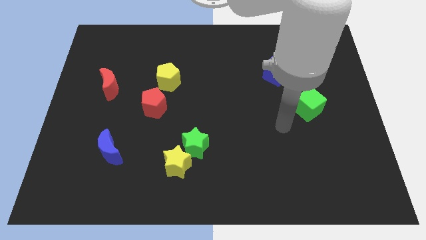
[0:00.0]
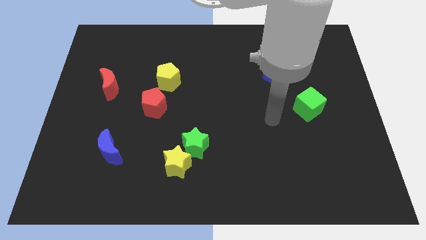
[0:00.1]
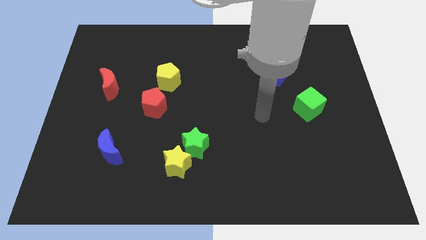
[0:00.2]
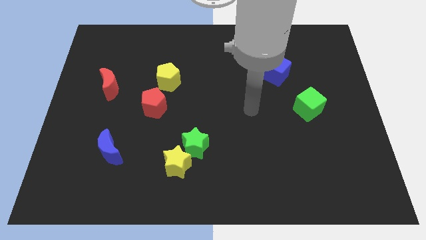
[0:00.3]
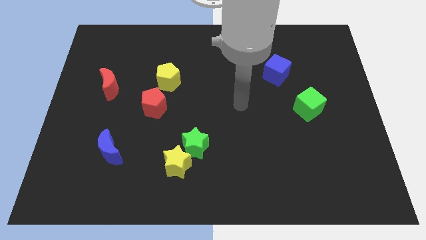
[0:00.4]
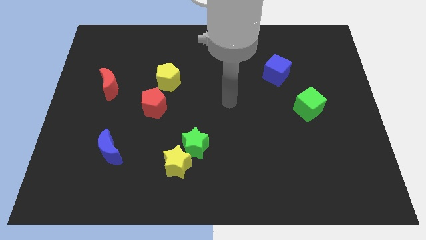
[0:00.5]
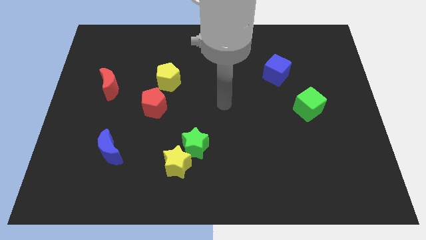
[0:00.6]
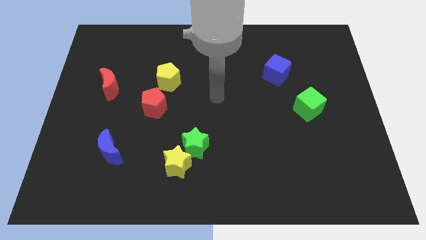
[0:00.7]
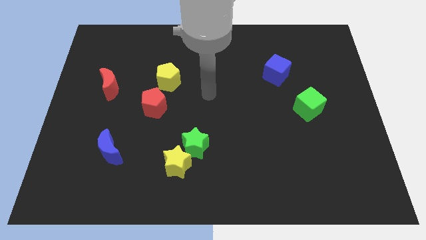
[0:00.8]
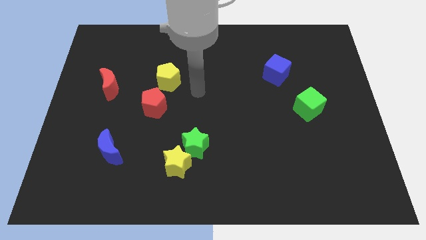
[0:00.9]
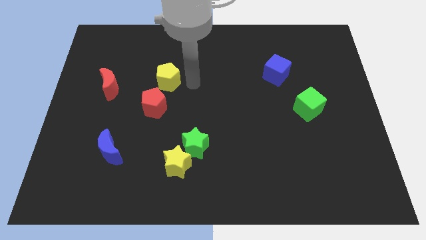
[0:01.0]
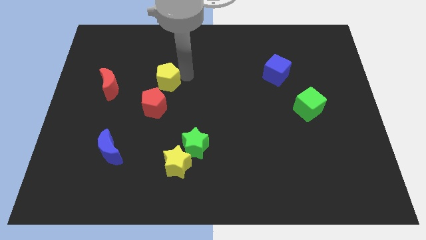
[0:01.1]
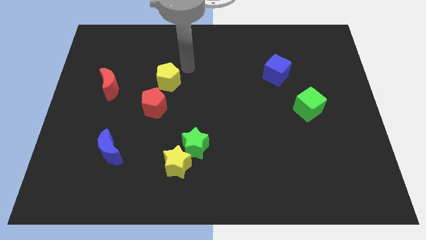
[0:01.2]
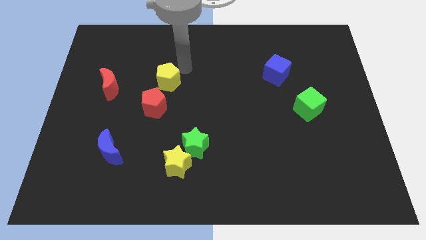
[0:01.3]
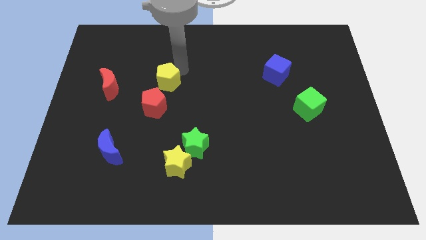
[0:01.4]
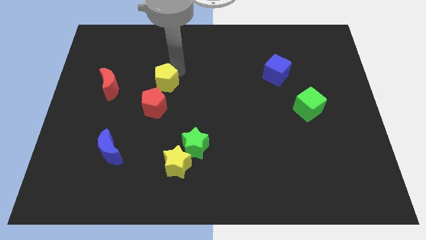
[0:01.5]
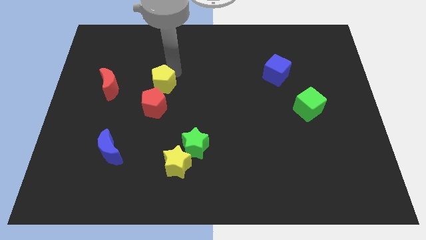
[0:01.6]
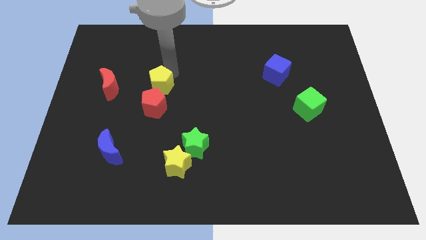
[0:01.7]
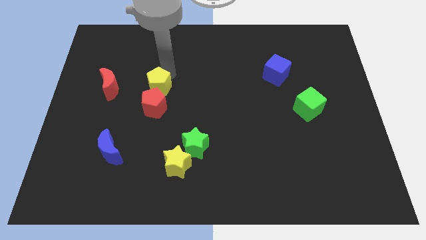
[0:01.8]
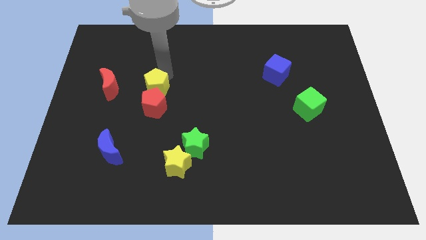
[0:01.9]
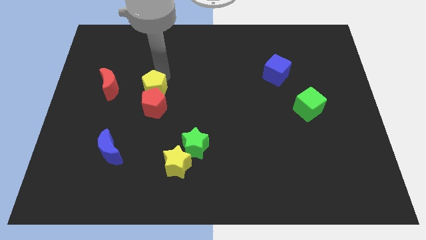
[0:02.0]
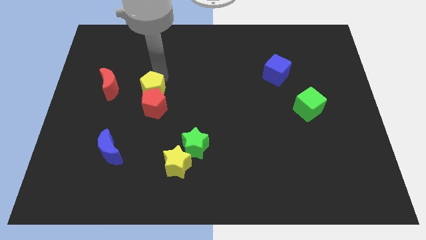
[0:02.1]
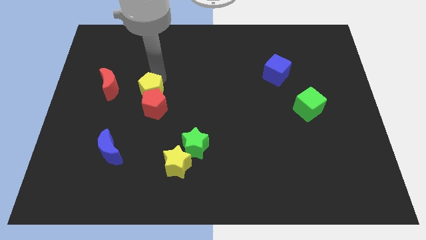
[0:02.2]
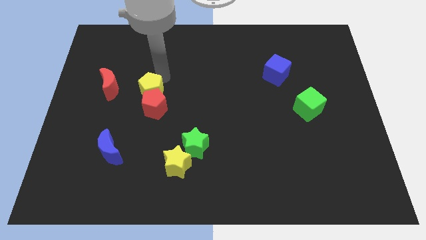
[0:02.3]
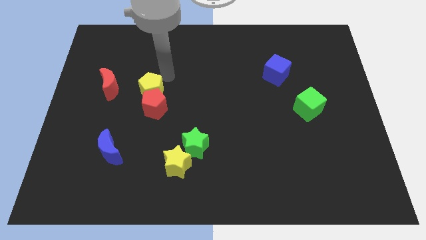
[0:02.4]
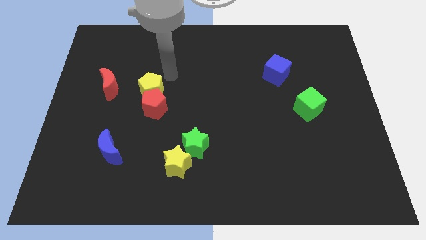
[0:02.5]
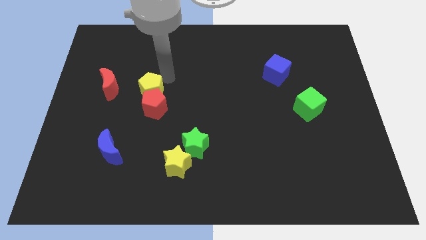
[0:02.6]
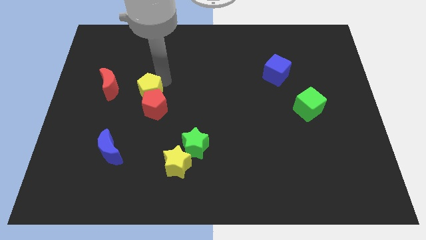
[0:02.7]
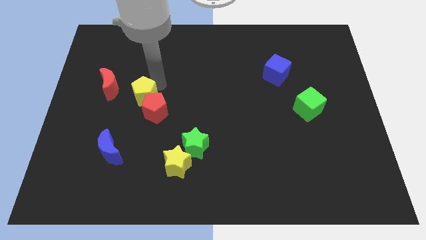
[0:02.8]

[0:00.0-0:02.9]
slightly move the yellow pentagon down and left

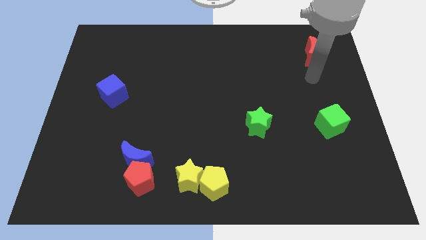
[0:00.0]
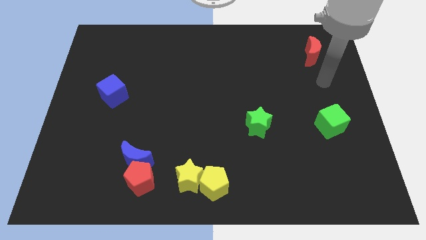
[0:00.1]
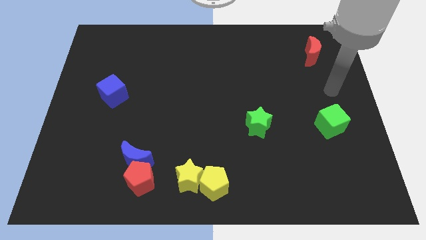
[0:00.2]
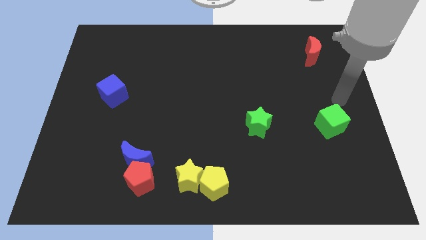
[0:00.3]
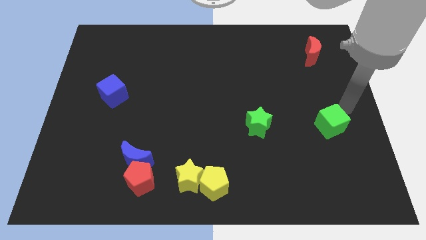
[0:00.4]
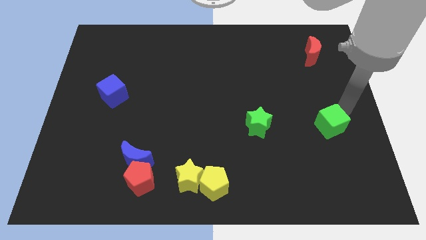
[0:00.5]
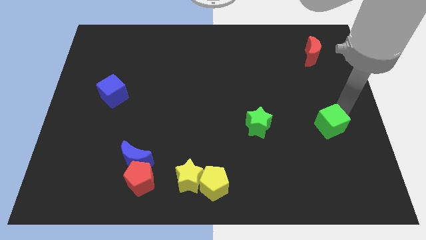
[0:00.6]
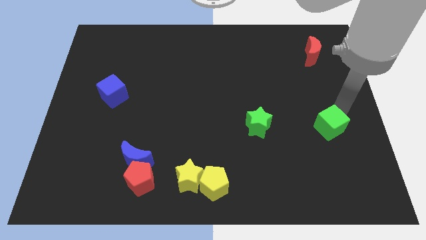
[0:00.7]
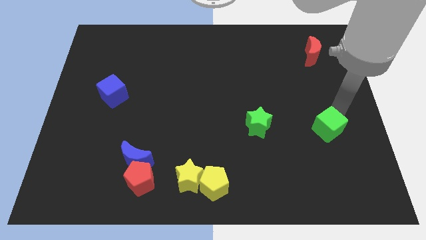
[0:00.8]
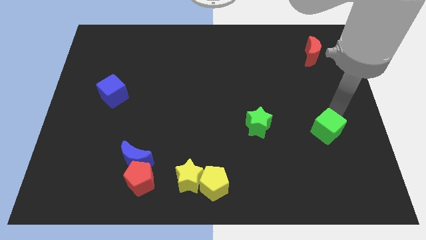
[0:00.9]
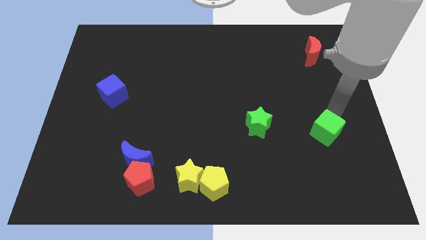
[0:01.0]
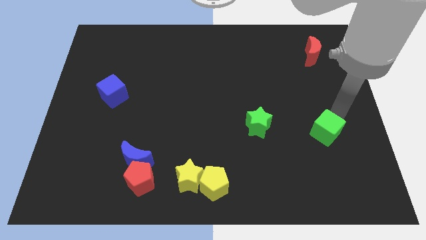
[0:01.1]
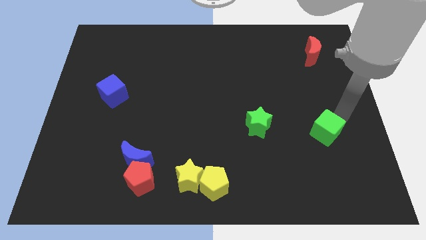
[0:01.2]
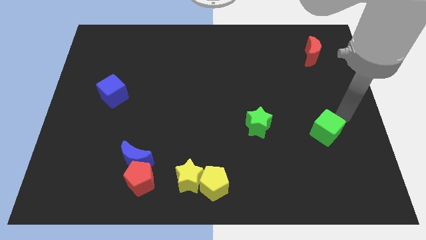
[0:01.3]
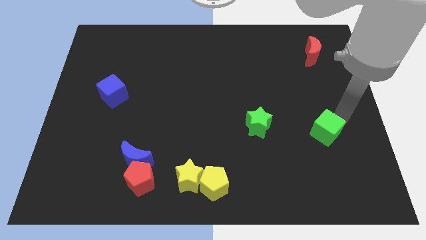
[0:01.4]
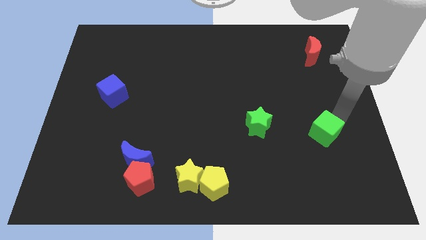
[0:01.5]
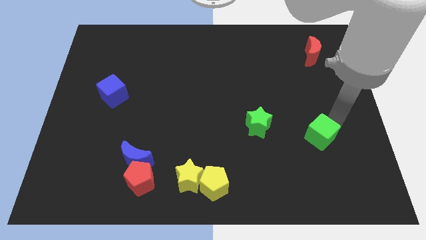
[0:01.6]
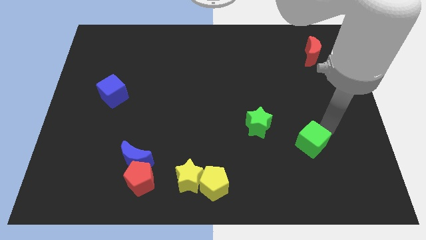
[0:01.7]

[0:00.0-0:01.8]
move the green cube diagonally downwards and left a bit

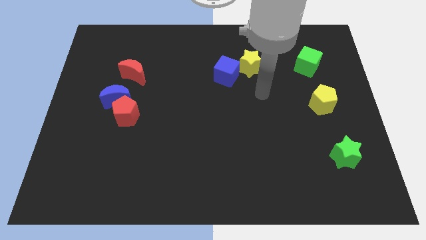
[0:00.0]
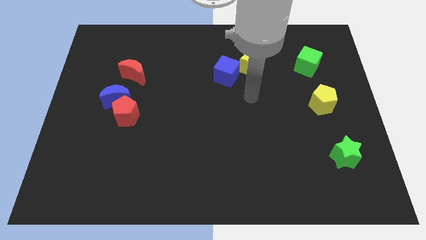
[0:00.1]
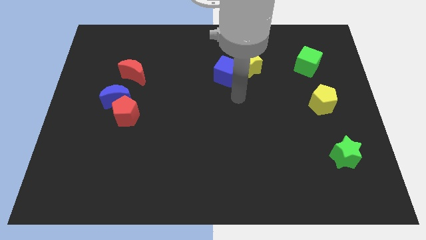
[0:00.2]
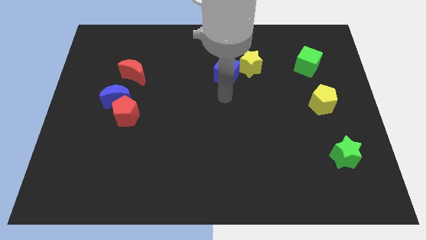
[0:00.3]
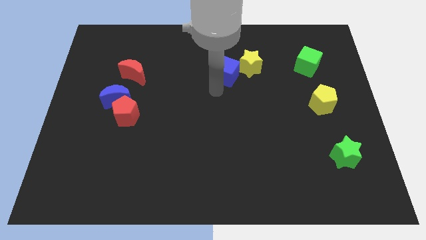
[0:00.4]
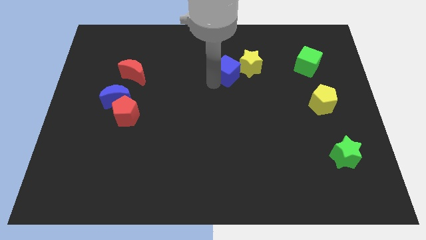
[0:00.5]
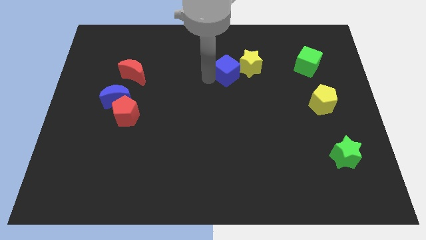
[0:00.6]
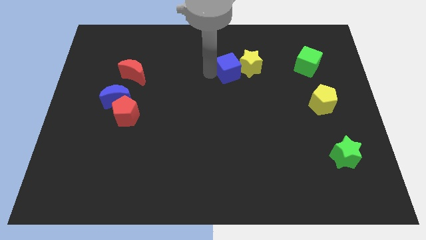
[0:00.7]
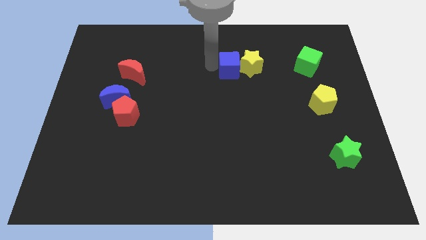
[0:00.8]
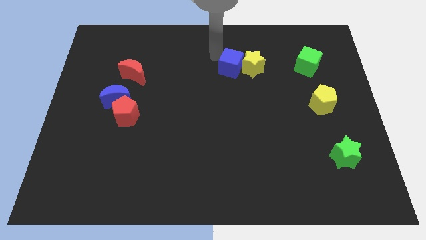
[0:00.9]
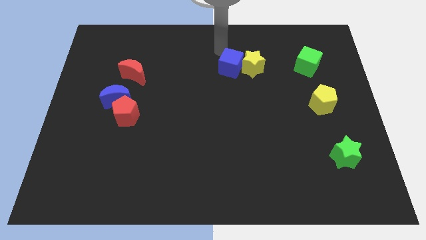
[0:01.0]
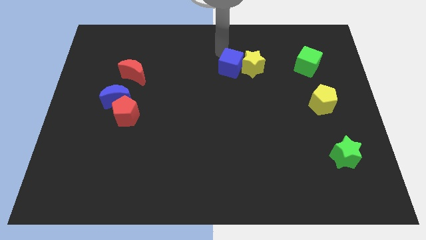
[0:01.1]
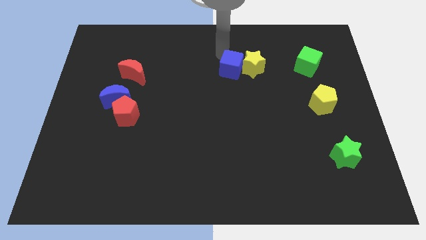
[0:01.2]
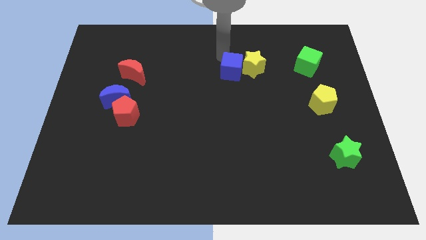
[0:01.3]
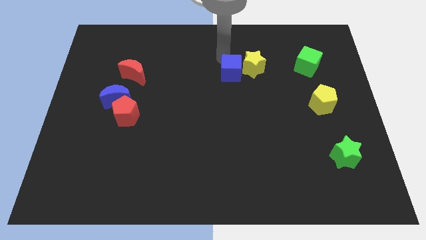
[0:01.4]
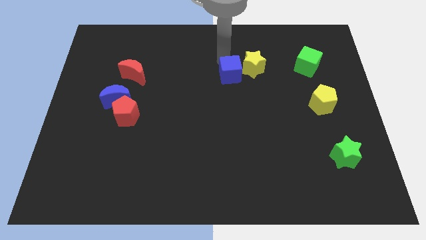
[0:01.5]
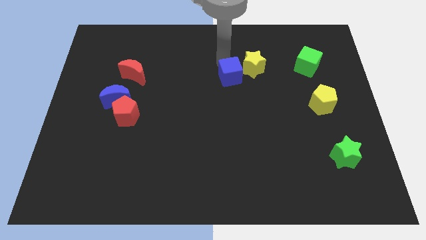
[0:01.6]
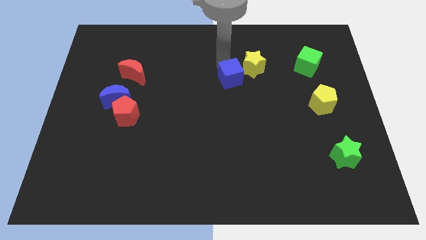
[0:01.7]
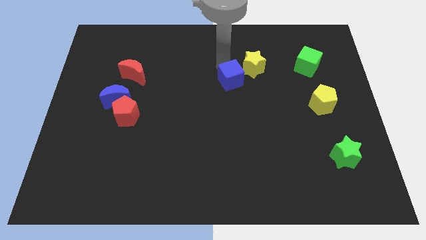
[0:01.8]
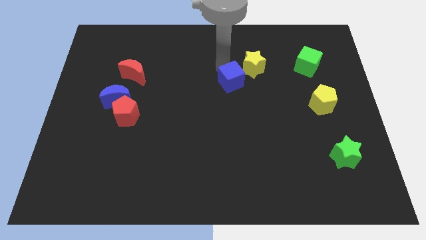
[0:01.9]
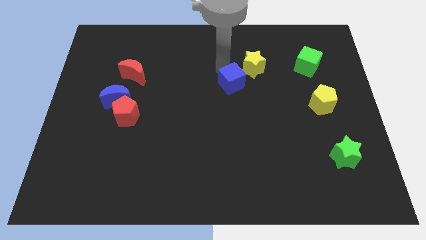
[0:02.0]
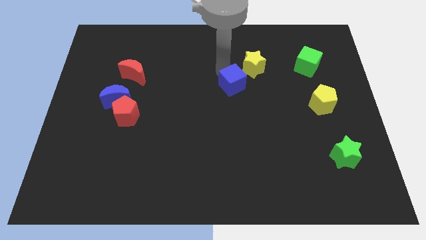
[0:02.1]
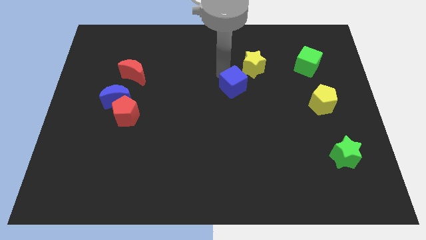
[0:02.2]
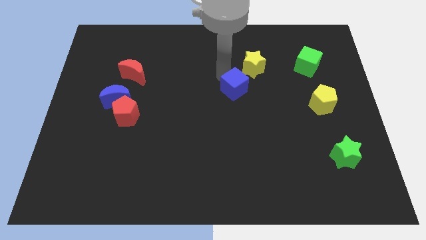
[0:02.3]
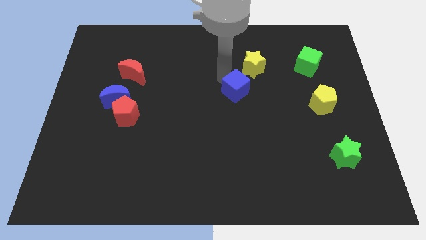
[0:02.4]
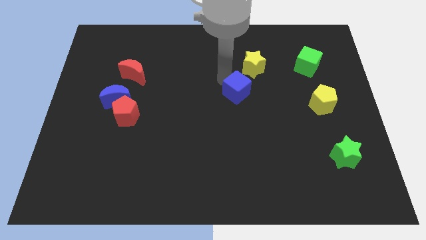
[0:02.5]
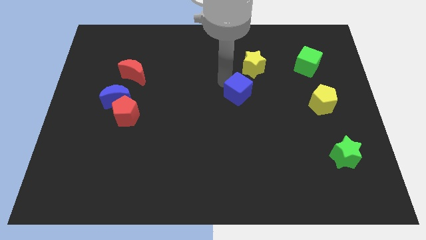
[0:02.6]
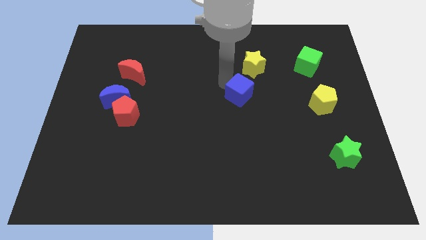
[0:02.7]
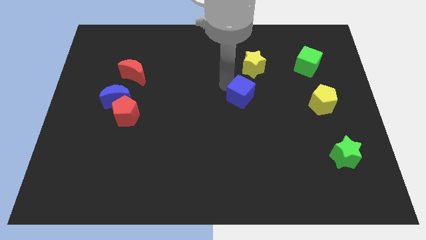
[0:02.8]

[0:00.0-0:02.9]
slightly push the blue cube diagonally down and right

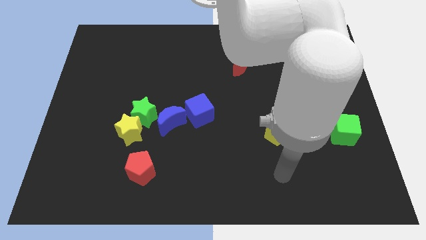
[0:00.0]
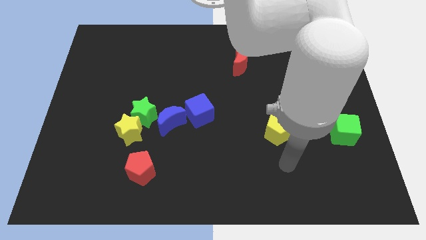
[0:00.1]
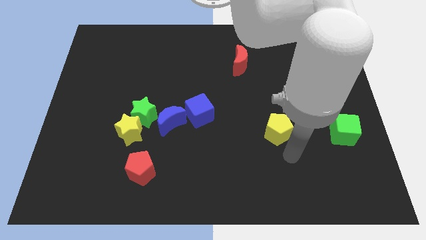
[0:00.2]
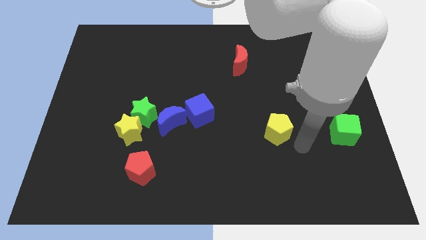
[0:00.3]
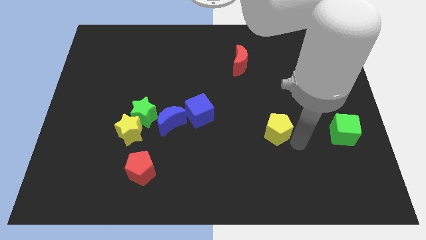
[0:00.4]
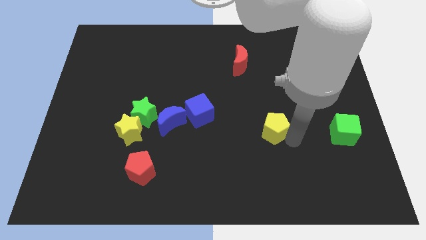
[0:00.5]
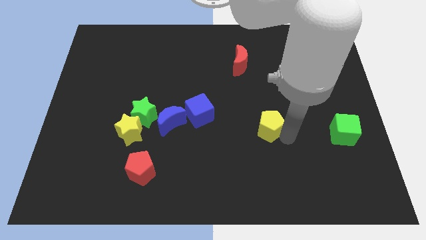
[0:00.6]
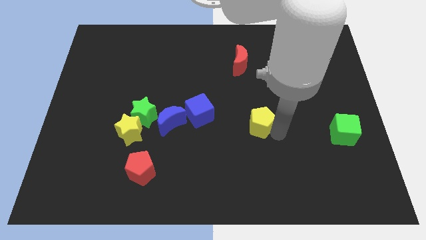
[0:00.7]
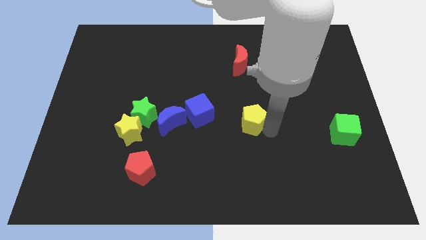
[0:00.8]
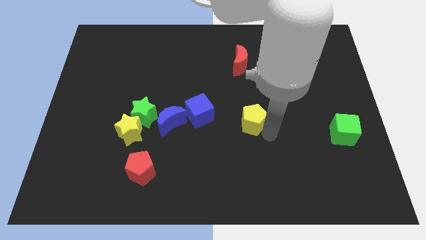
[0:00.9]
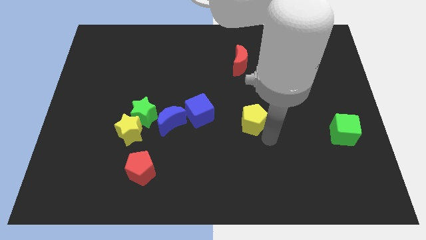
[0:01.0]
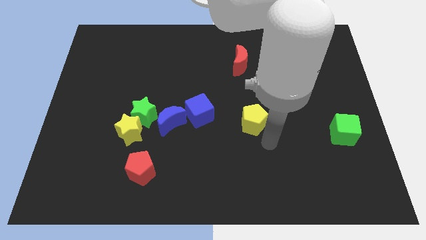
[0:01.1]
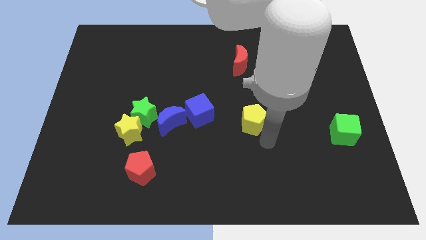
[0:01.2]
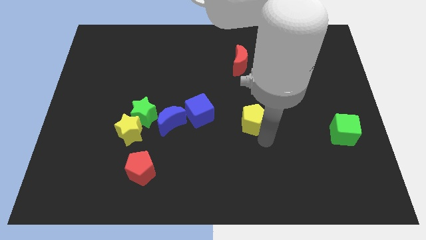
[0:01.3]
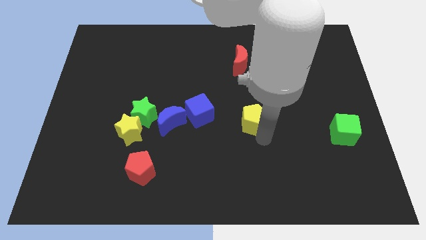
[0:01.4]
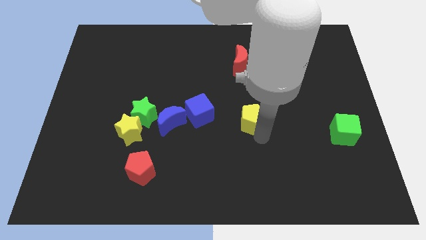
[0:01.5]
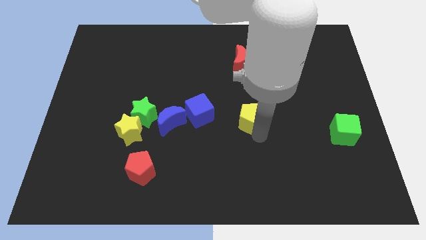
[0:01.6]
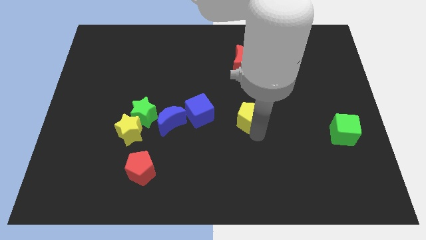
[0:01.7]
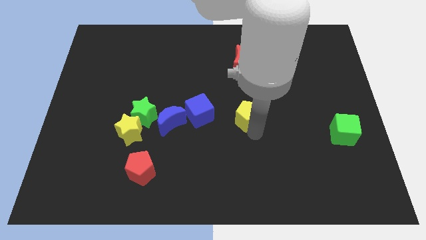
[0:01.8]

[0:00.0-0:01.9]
move the yellow pentagon diagonally upwards and to the left somewhat
